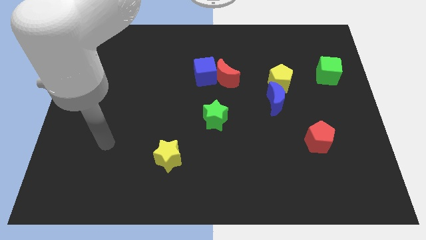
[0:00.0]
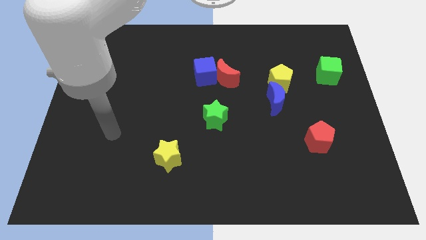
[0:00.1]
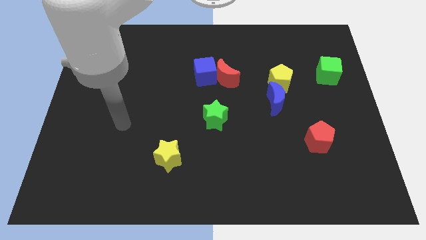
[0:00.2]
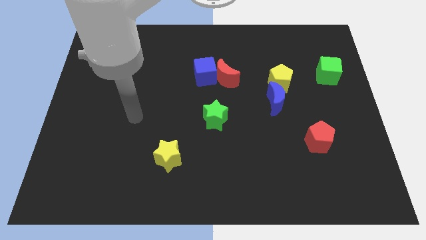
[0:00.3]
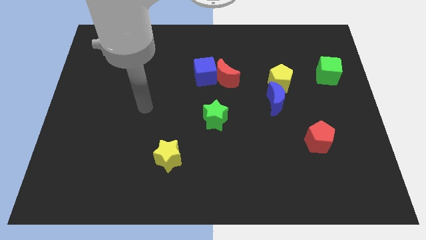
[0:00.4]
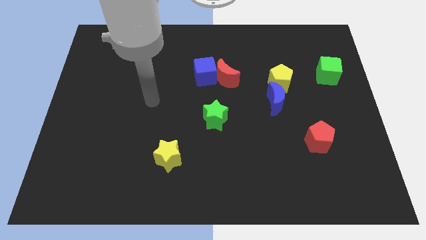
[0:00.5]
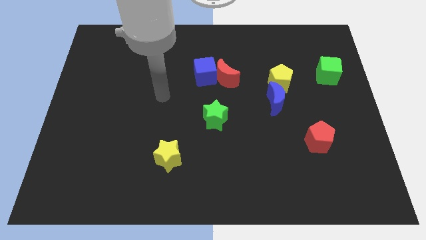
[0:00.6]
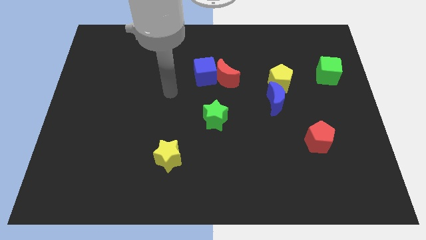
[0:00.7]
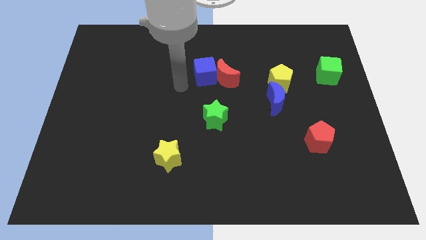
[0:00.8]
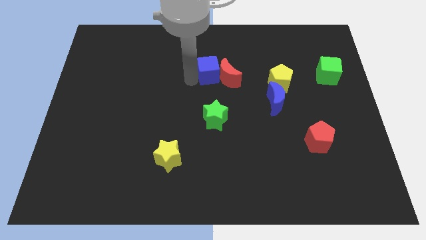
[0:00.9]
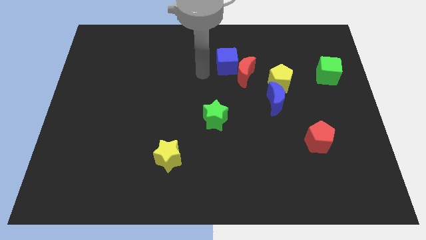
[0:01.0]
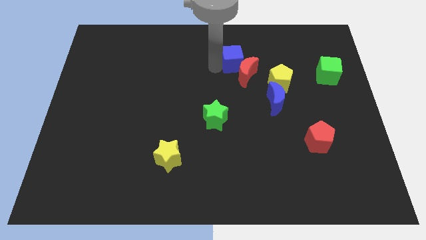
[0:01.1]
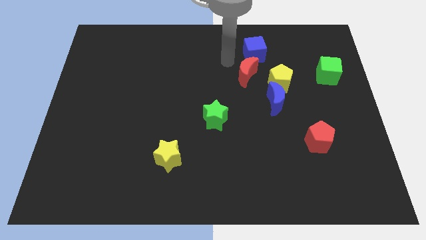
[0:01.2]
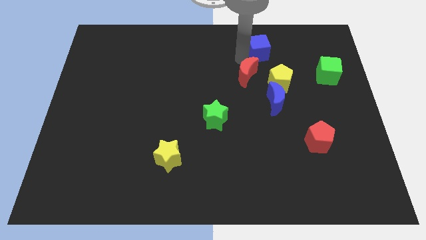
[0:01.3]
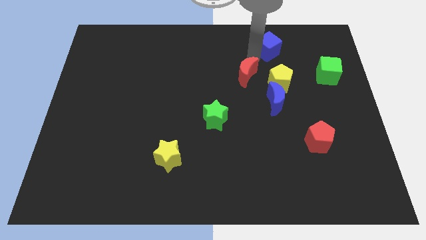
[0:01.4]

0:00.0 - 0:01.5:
move the red moon away from the blue cube

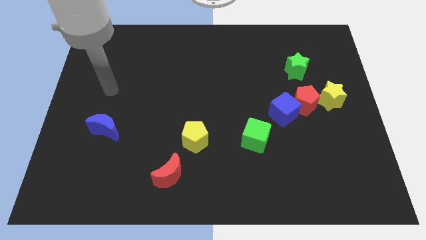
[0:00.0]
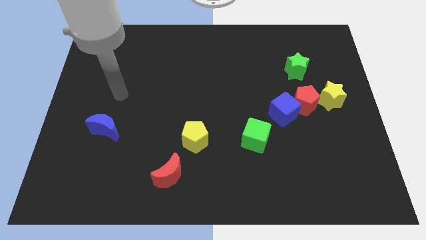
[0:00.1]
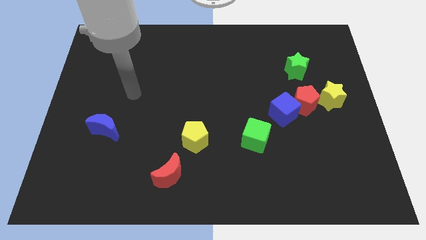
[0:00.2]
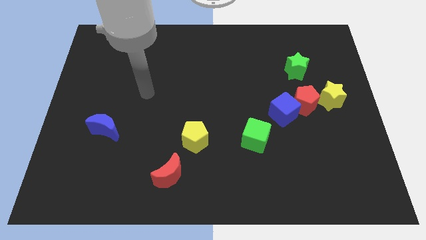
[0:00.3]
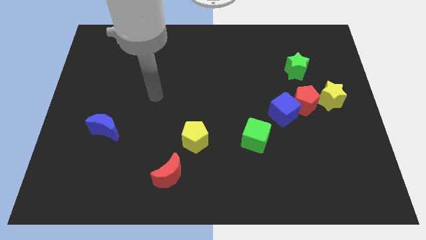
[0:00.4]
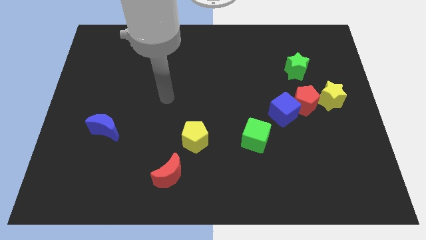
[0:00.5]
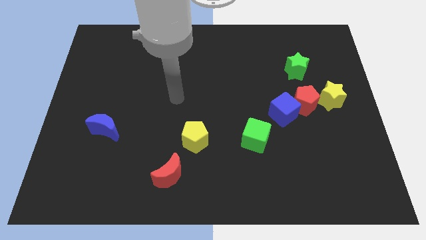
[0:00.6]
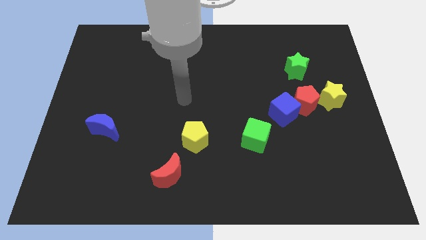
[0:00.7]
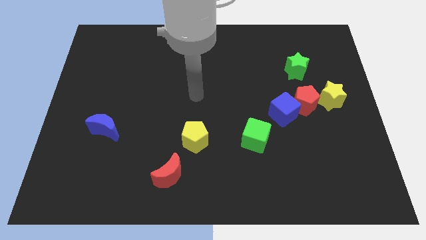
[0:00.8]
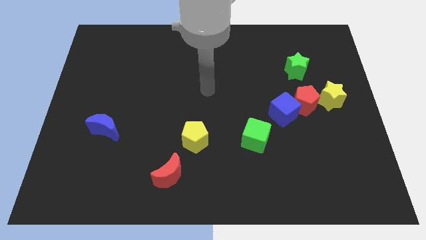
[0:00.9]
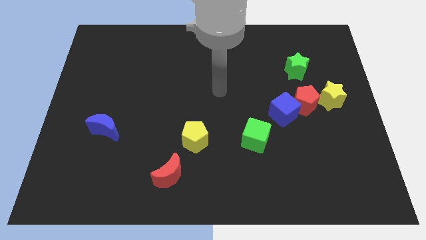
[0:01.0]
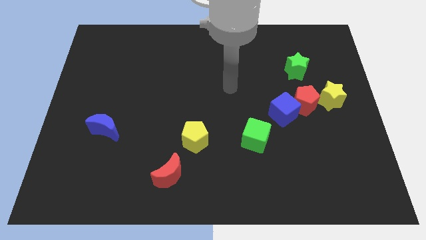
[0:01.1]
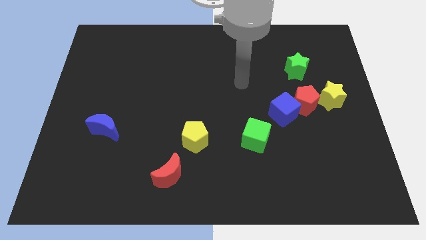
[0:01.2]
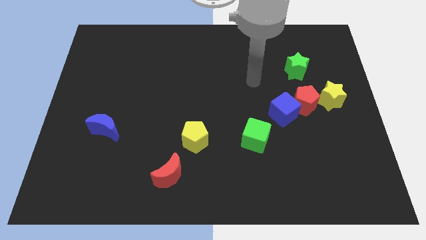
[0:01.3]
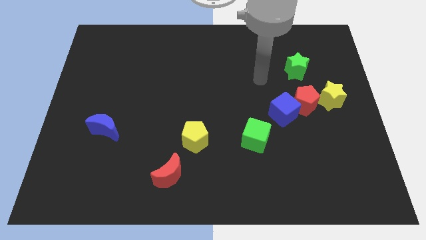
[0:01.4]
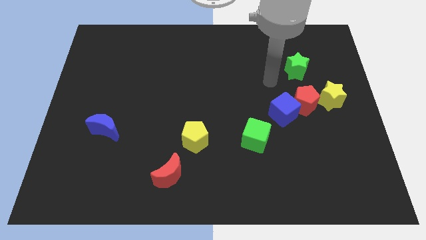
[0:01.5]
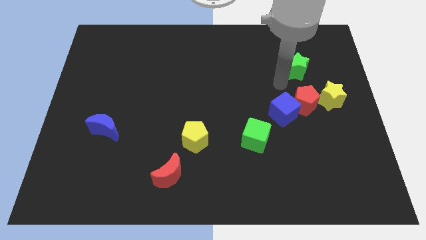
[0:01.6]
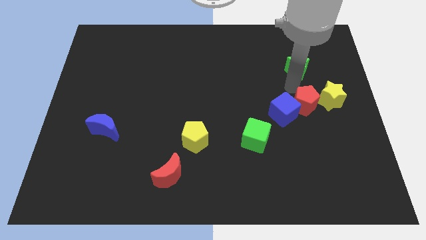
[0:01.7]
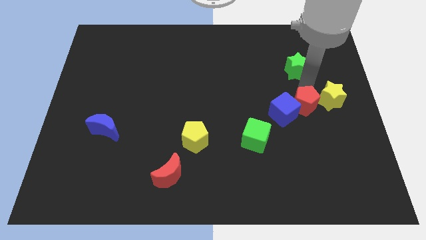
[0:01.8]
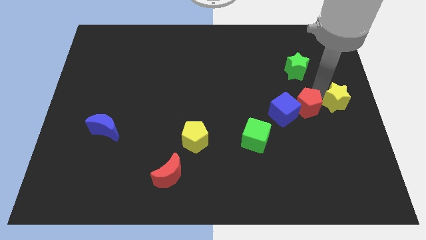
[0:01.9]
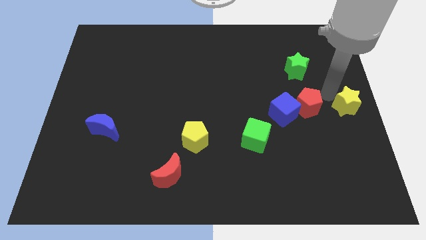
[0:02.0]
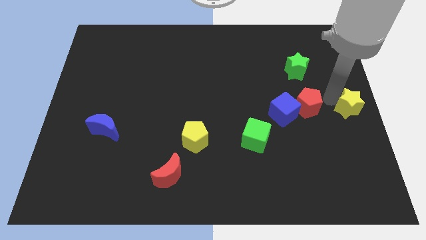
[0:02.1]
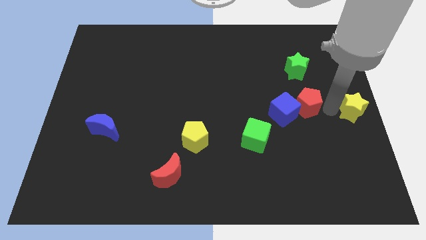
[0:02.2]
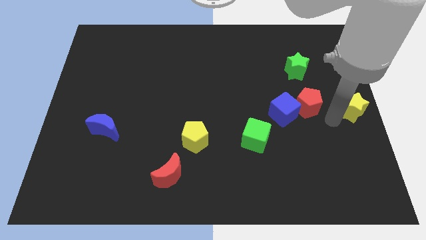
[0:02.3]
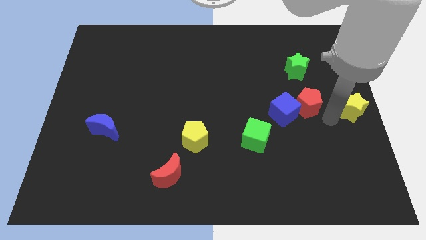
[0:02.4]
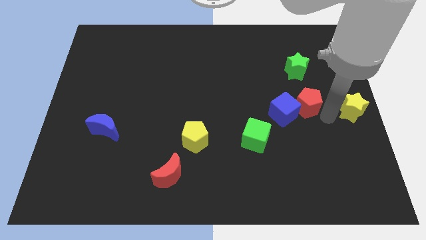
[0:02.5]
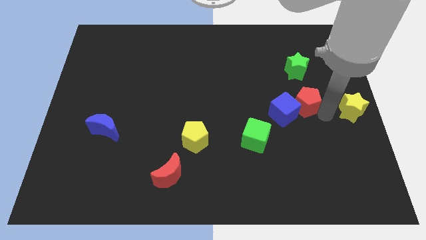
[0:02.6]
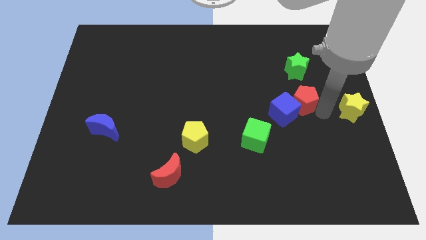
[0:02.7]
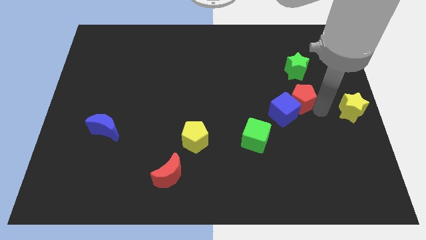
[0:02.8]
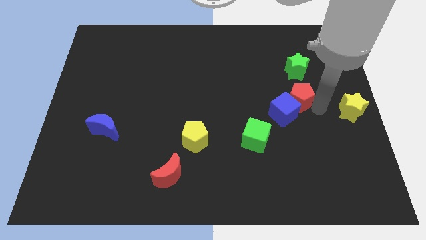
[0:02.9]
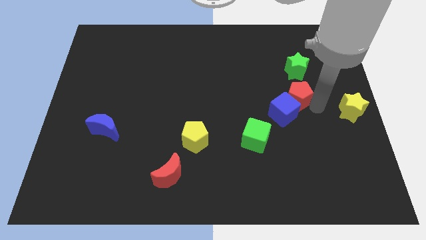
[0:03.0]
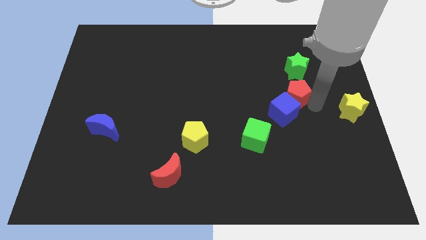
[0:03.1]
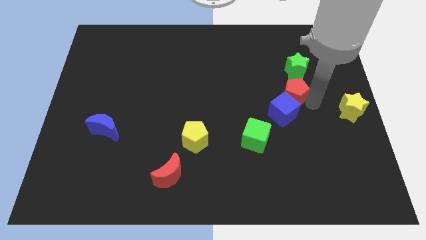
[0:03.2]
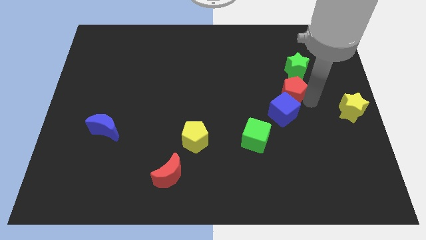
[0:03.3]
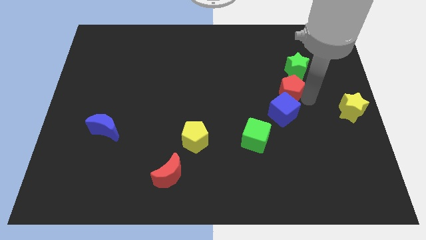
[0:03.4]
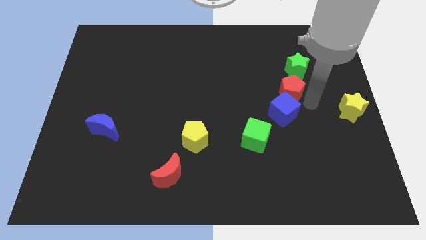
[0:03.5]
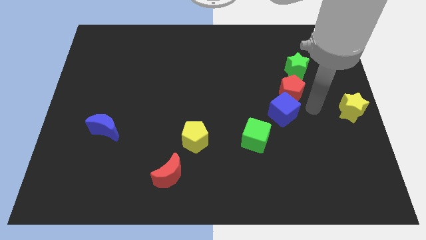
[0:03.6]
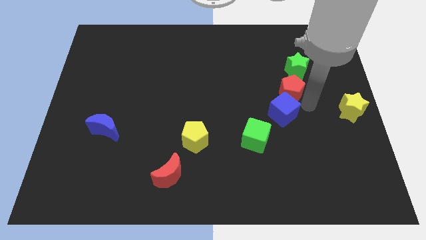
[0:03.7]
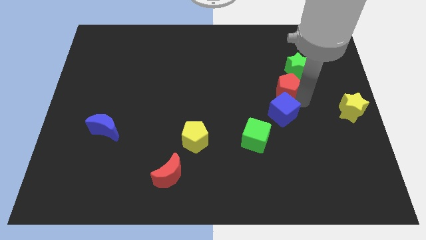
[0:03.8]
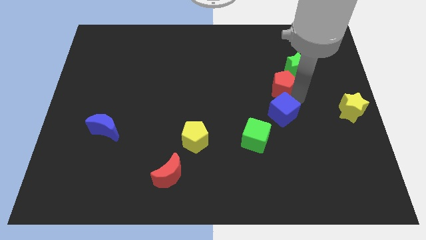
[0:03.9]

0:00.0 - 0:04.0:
separate the red pentagon from the blue cube and yellow star

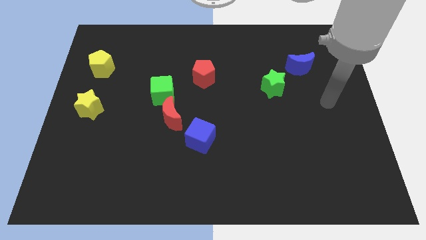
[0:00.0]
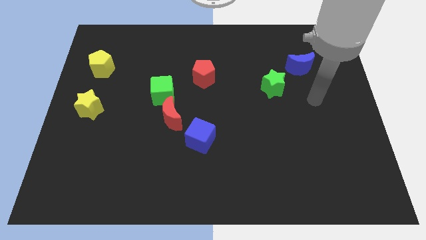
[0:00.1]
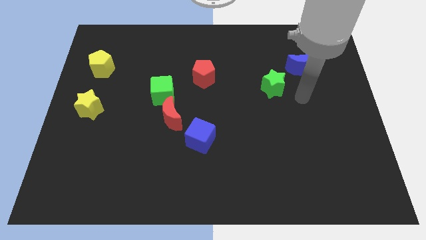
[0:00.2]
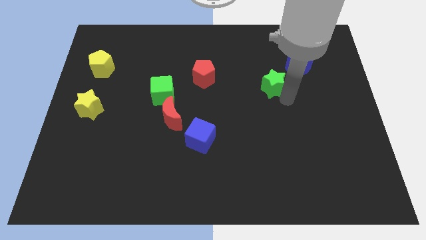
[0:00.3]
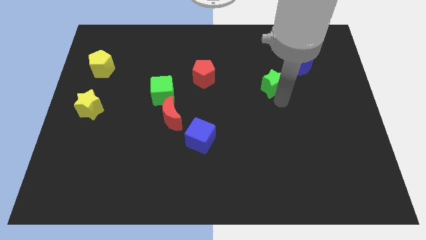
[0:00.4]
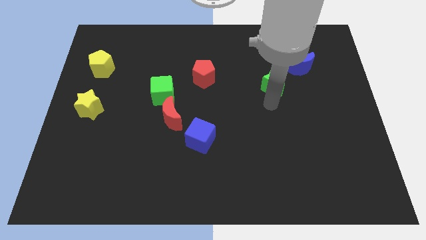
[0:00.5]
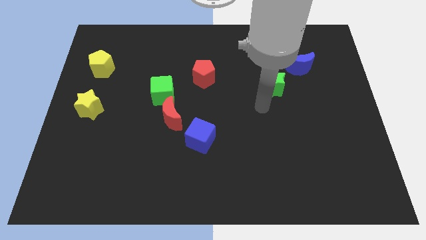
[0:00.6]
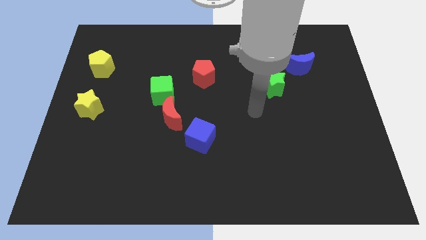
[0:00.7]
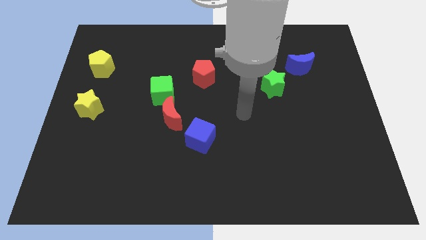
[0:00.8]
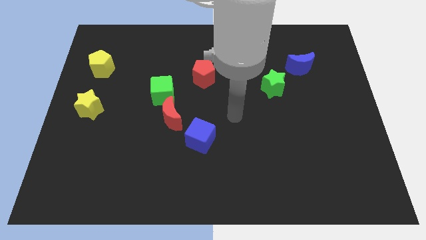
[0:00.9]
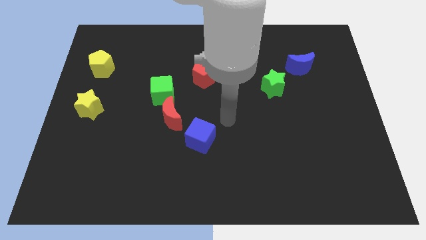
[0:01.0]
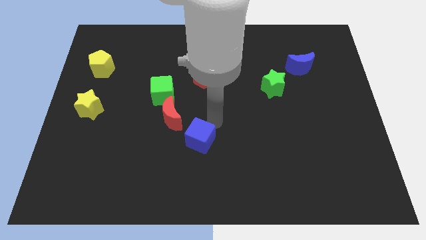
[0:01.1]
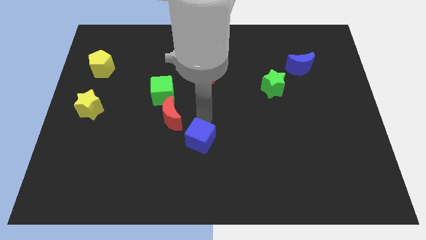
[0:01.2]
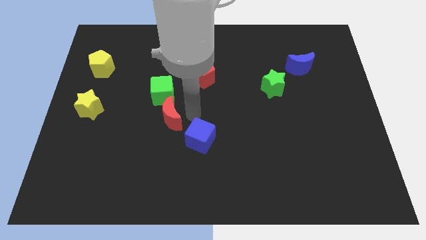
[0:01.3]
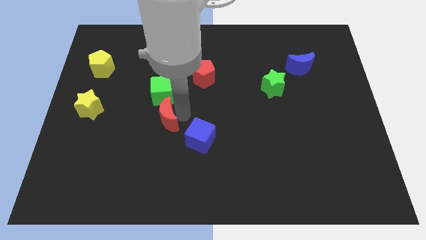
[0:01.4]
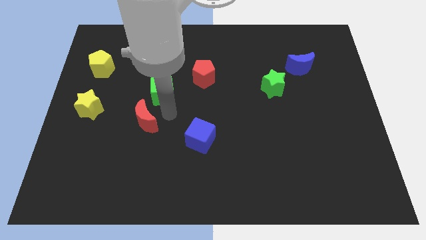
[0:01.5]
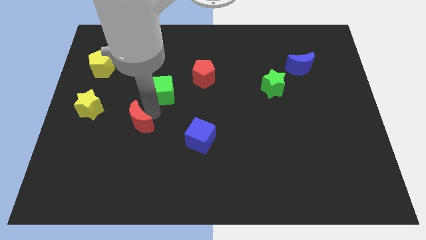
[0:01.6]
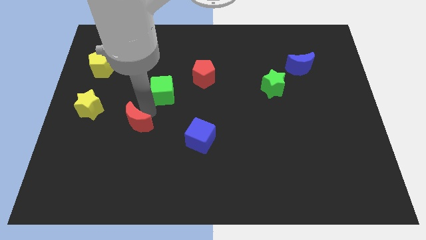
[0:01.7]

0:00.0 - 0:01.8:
move the green cube away from the red moon

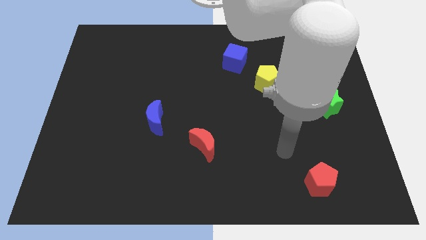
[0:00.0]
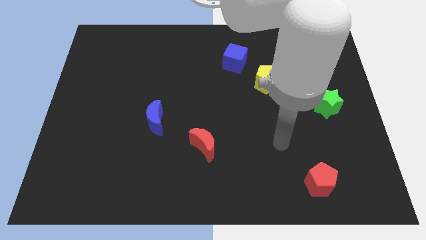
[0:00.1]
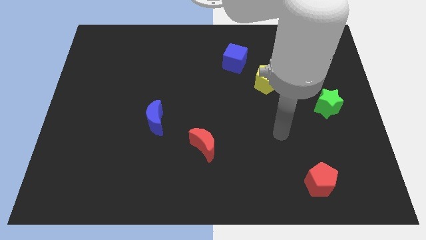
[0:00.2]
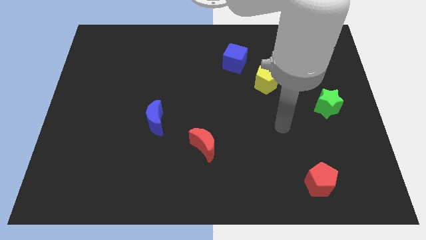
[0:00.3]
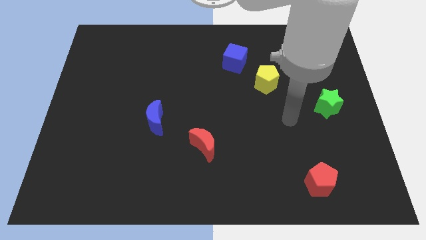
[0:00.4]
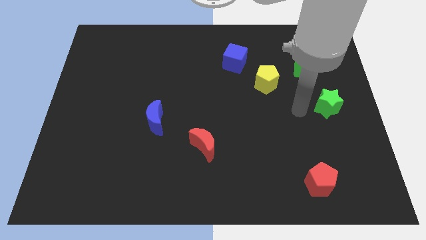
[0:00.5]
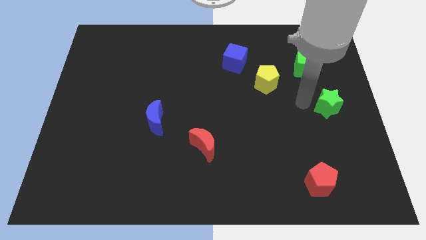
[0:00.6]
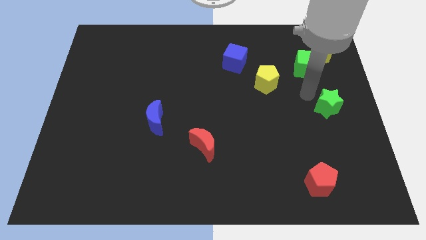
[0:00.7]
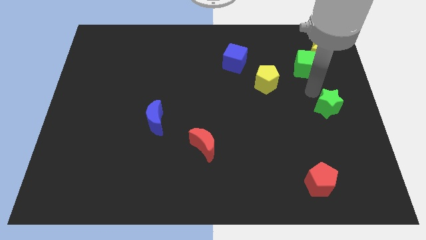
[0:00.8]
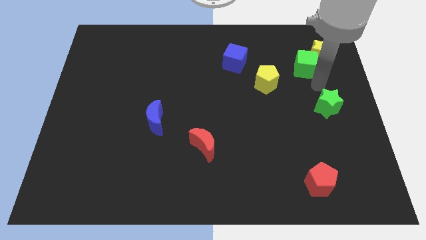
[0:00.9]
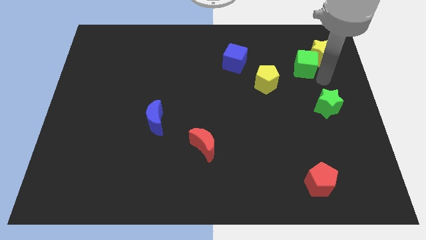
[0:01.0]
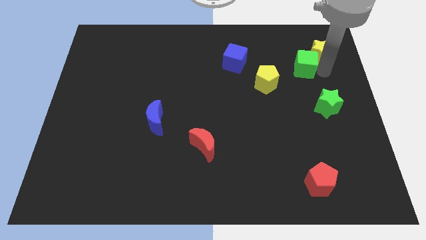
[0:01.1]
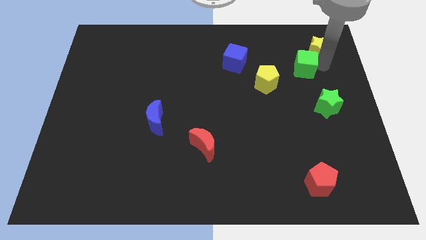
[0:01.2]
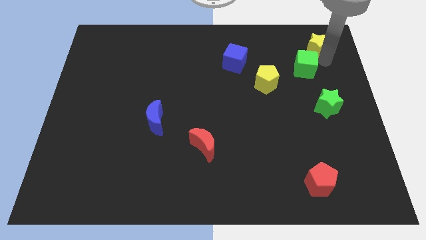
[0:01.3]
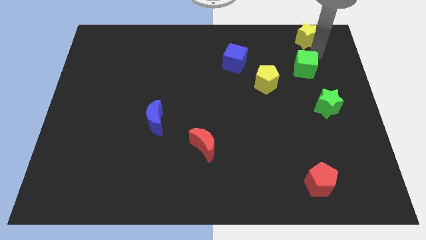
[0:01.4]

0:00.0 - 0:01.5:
move the green cube away from the yellow star

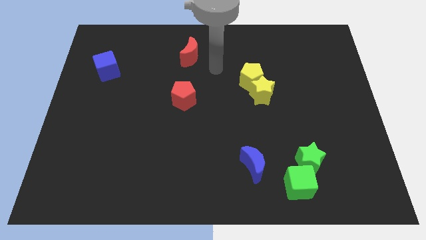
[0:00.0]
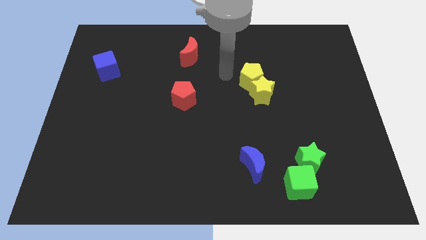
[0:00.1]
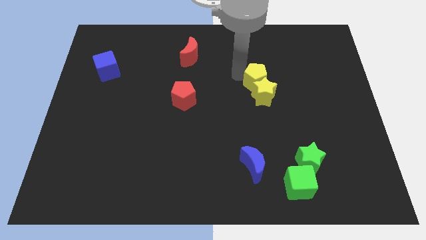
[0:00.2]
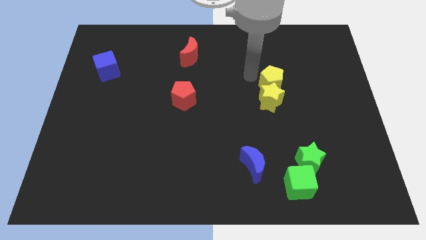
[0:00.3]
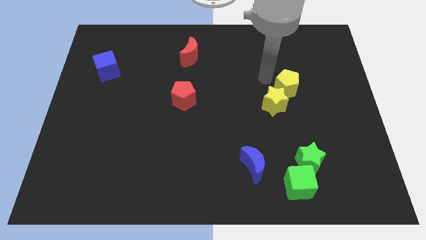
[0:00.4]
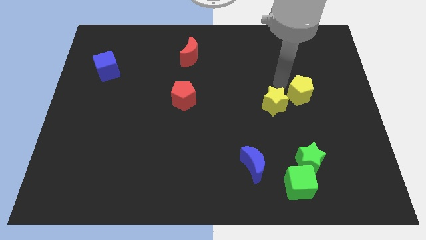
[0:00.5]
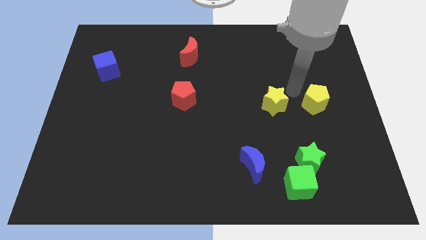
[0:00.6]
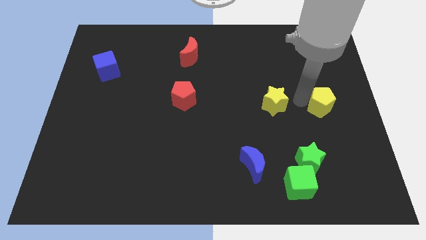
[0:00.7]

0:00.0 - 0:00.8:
separate the yellow star from the yellow pentagon
